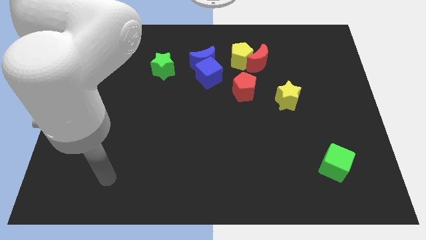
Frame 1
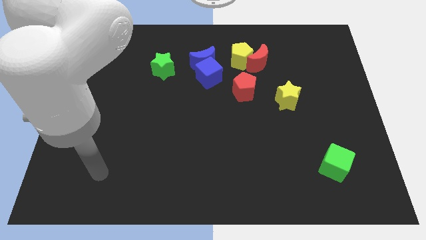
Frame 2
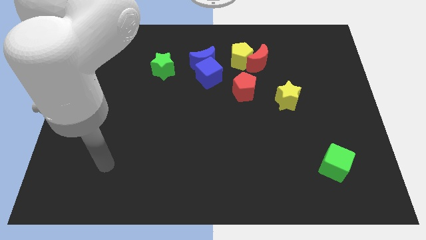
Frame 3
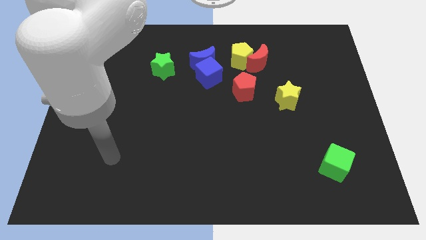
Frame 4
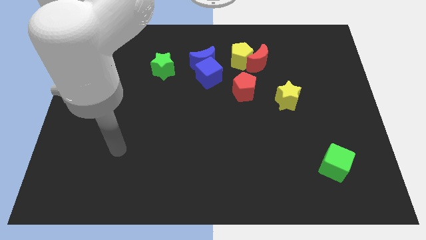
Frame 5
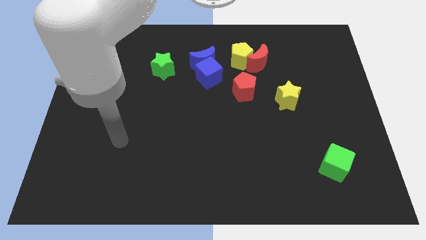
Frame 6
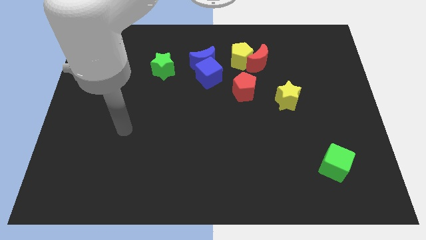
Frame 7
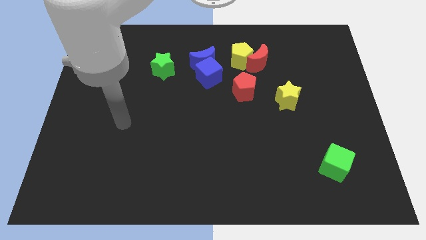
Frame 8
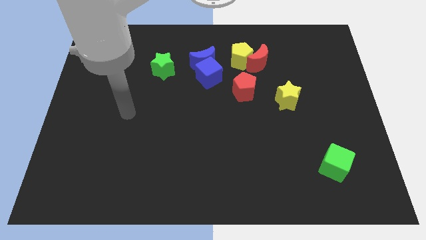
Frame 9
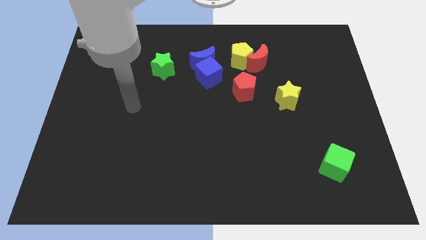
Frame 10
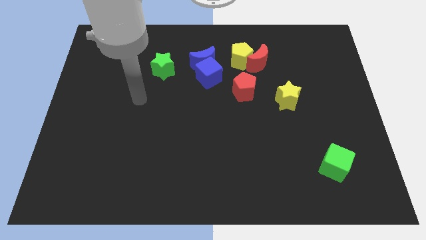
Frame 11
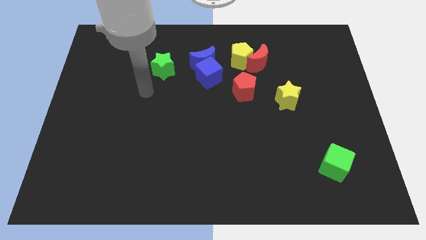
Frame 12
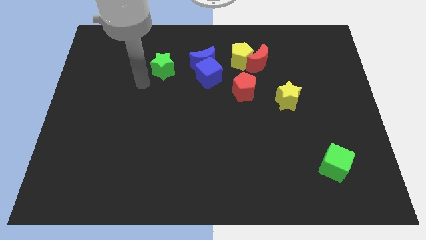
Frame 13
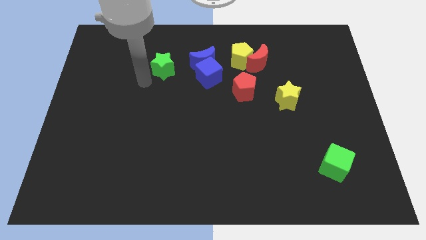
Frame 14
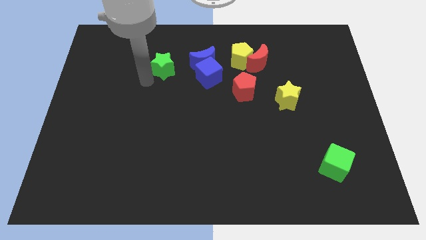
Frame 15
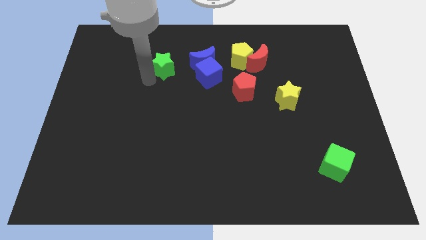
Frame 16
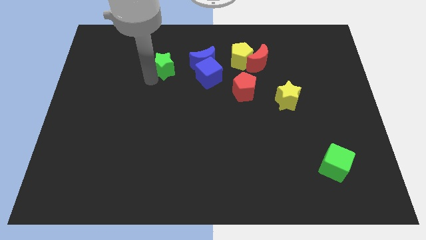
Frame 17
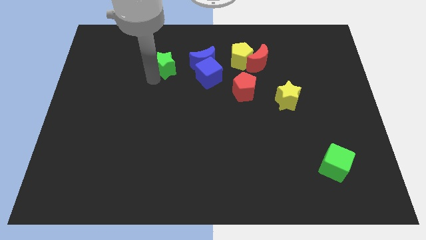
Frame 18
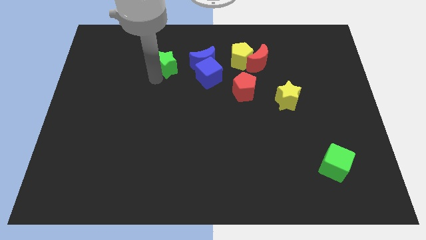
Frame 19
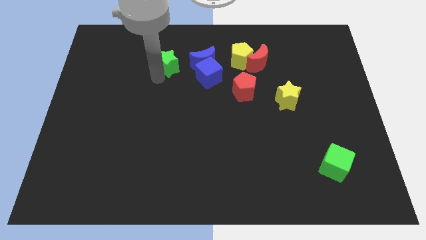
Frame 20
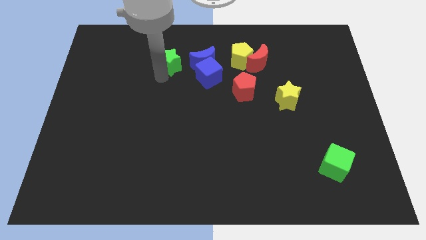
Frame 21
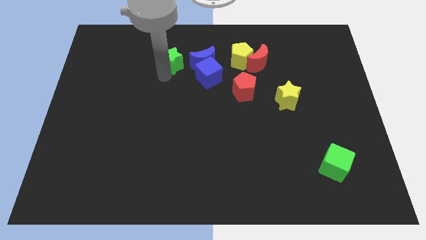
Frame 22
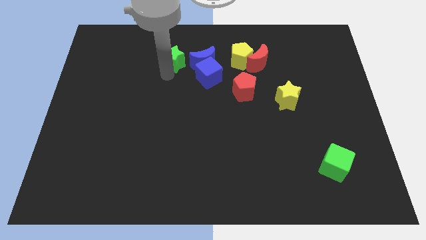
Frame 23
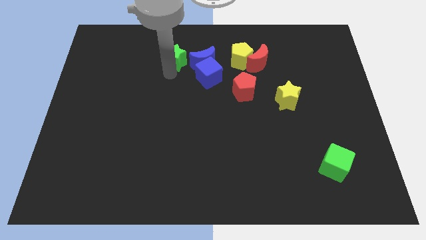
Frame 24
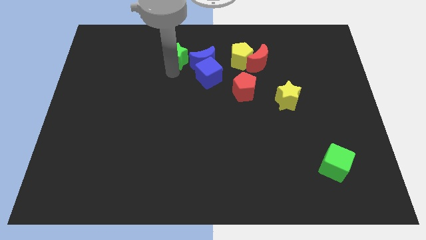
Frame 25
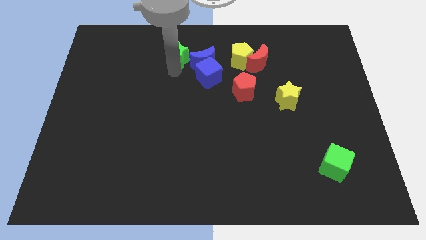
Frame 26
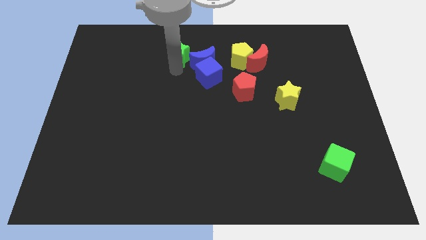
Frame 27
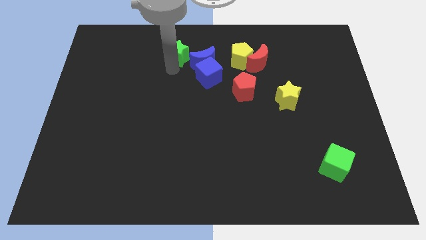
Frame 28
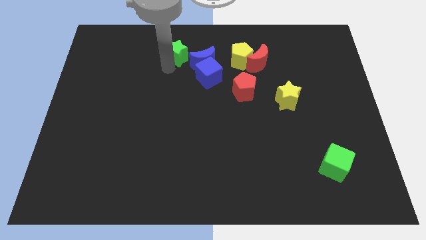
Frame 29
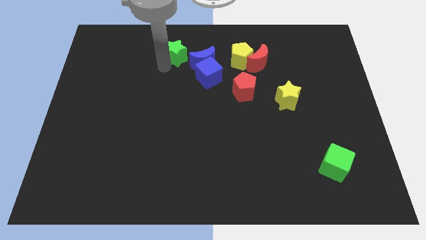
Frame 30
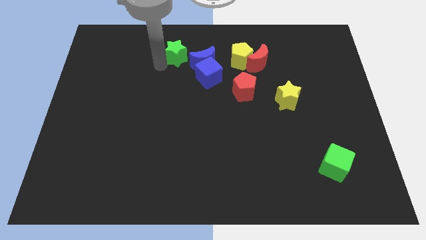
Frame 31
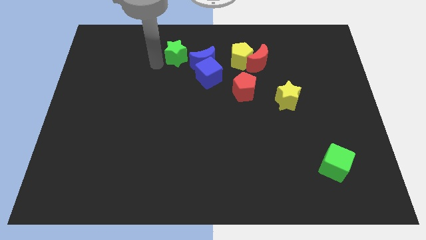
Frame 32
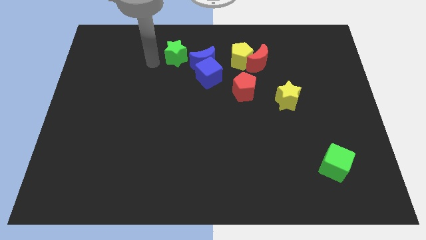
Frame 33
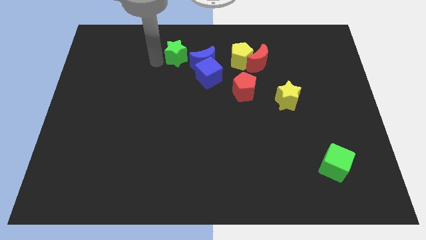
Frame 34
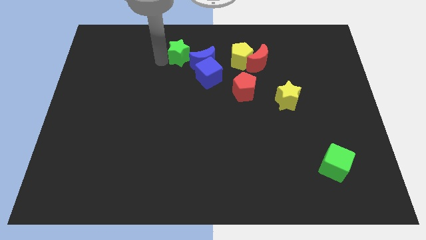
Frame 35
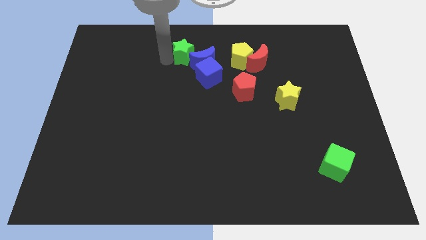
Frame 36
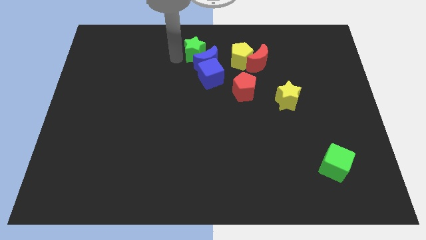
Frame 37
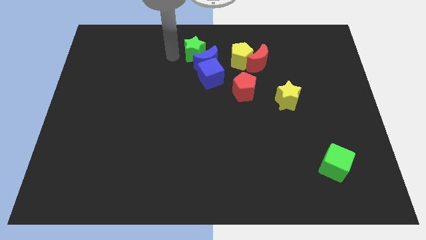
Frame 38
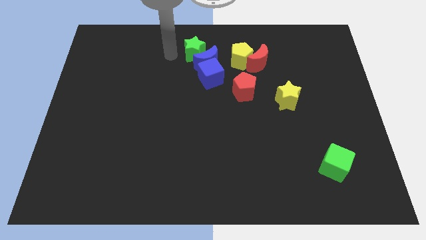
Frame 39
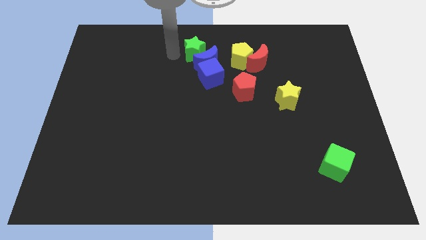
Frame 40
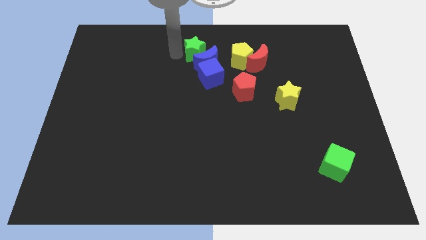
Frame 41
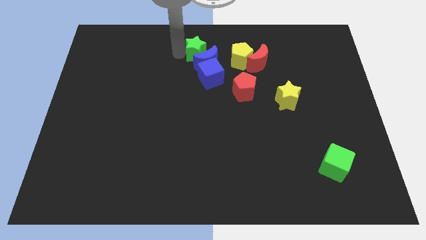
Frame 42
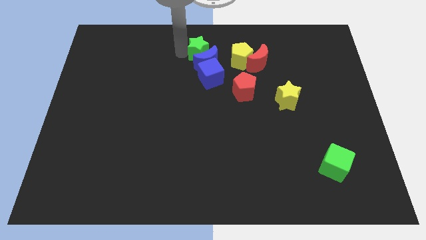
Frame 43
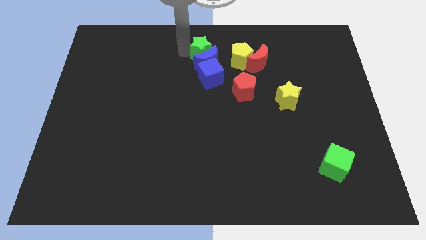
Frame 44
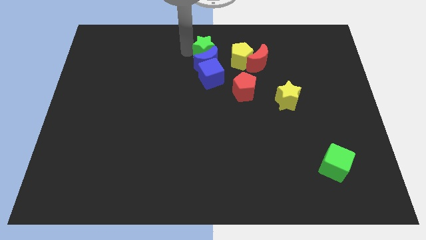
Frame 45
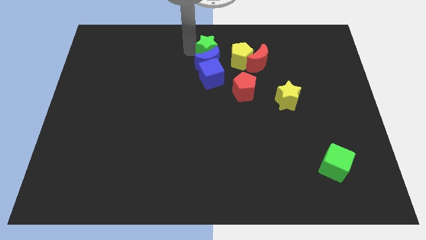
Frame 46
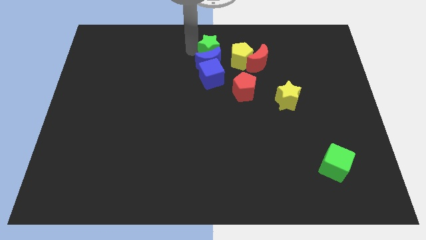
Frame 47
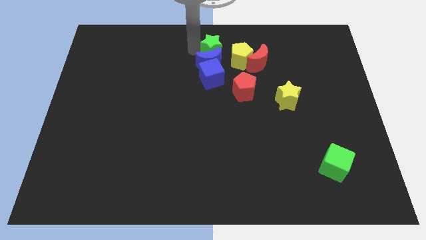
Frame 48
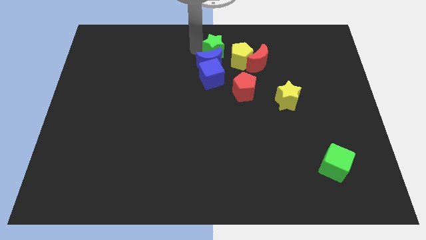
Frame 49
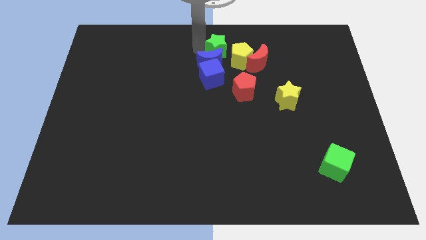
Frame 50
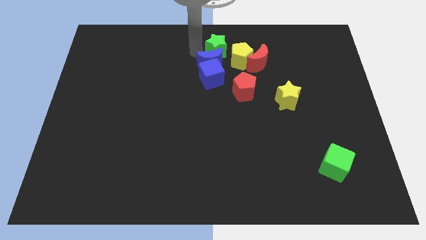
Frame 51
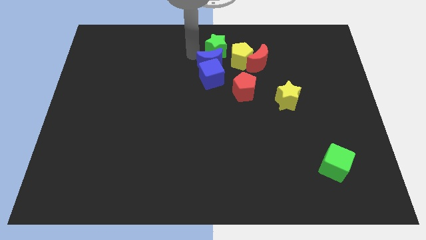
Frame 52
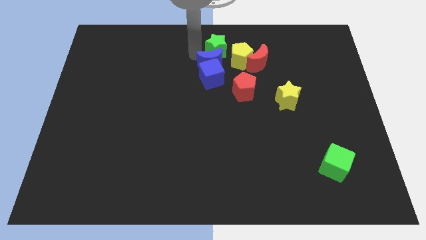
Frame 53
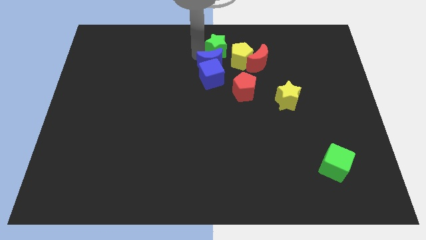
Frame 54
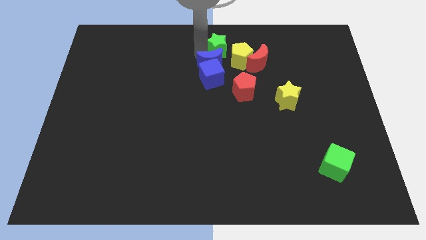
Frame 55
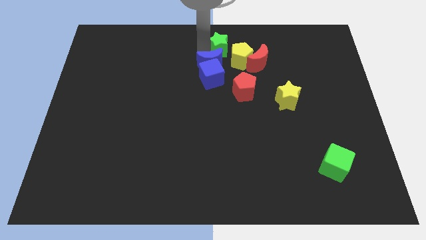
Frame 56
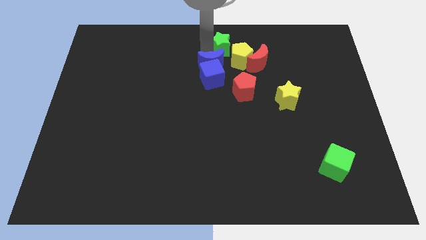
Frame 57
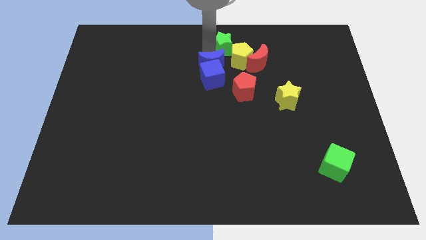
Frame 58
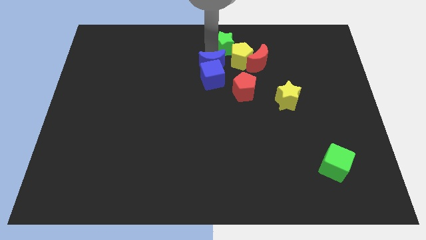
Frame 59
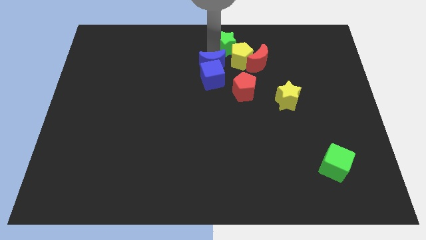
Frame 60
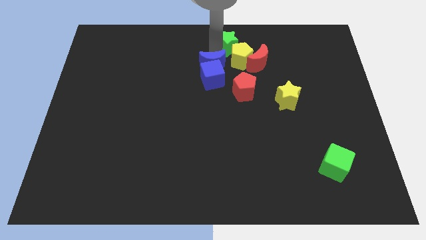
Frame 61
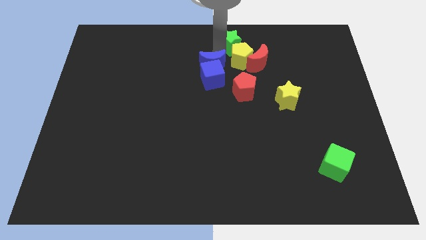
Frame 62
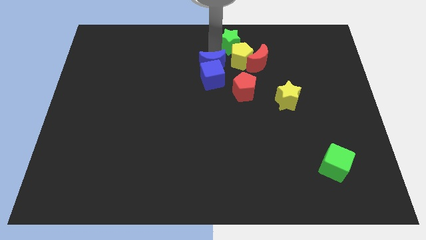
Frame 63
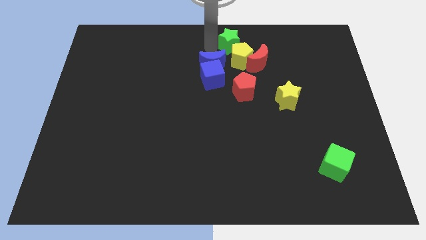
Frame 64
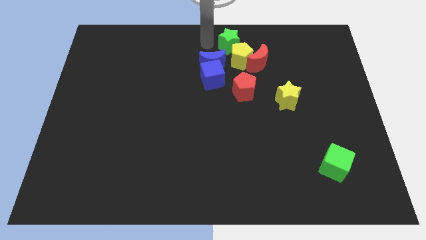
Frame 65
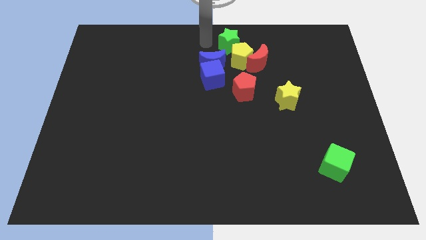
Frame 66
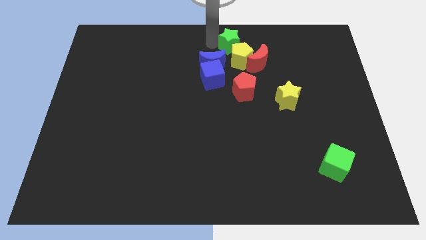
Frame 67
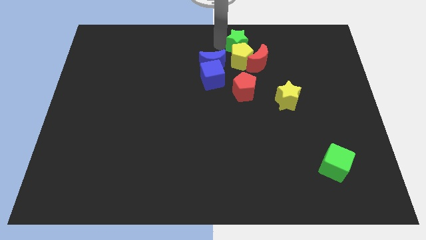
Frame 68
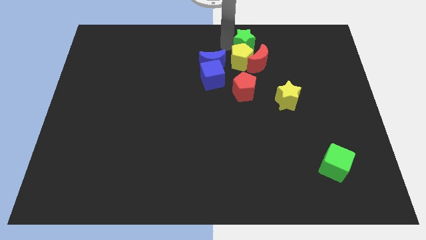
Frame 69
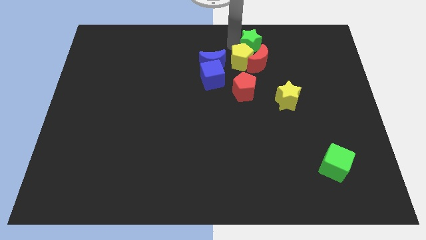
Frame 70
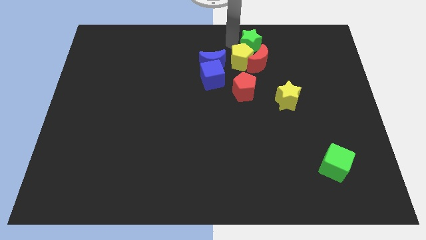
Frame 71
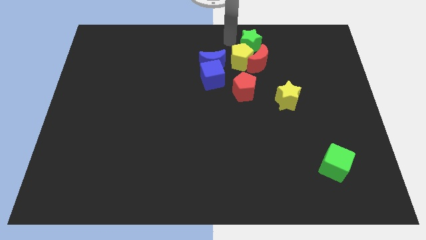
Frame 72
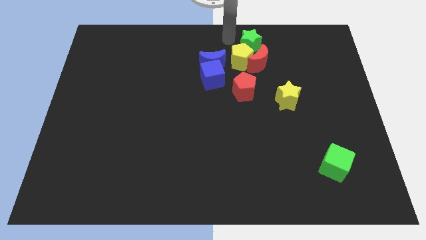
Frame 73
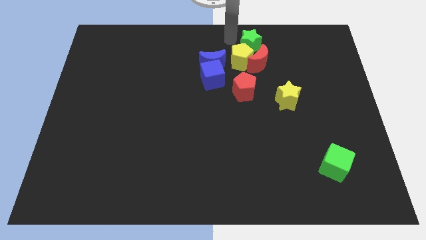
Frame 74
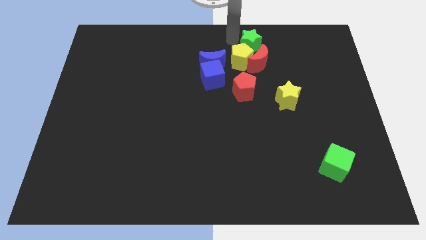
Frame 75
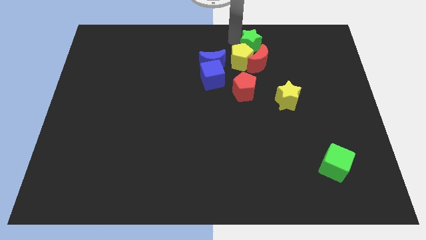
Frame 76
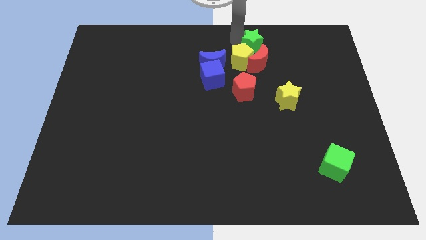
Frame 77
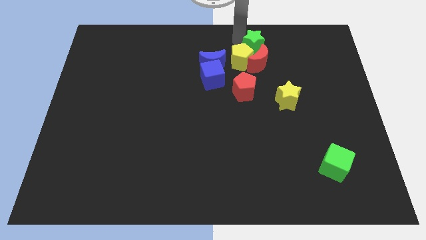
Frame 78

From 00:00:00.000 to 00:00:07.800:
push the green star to the right

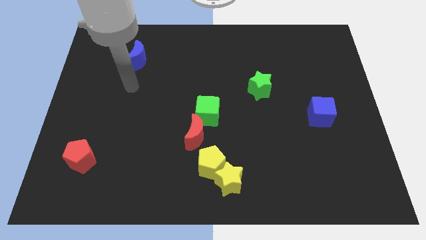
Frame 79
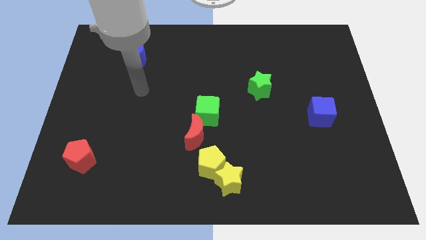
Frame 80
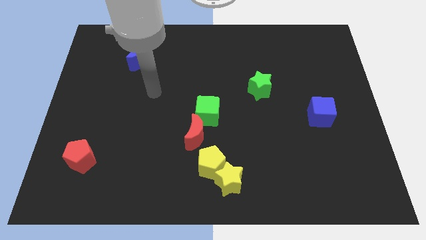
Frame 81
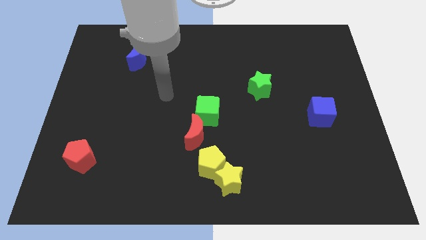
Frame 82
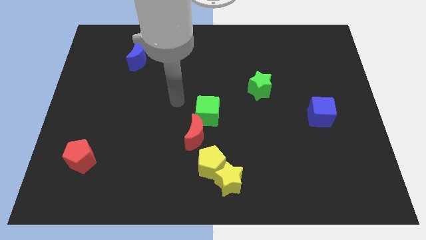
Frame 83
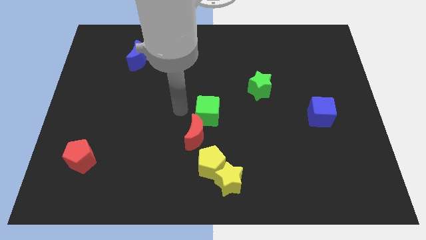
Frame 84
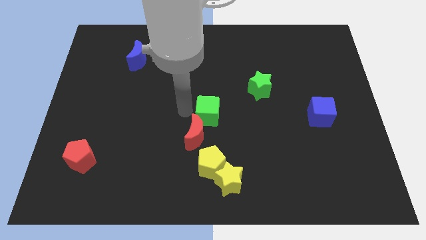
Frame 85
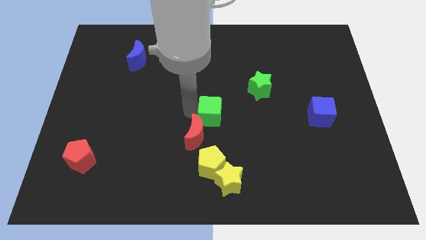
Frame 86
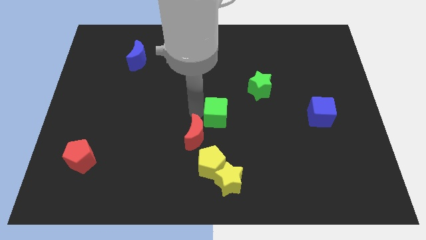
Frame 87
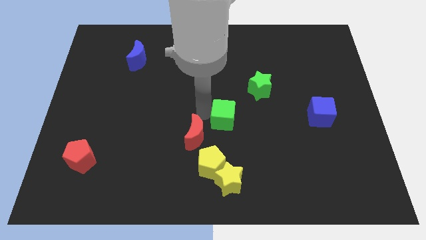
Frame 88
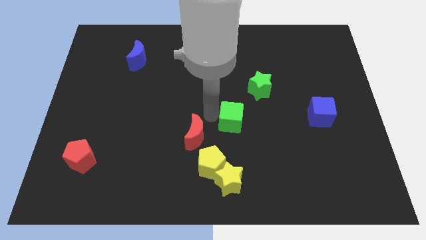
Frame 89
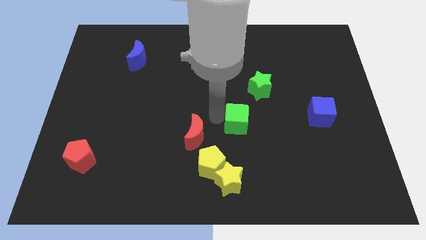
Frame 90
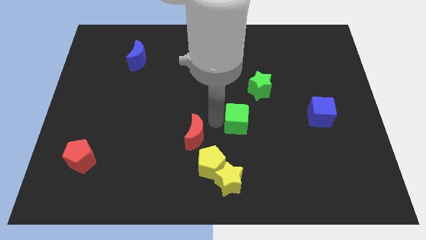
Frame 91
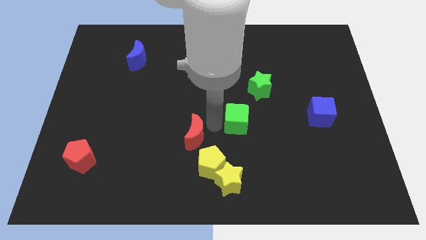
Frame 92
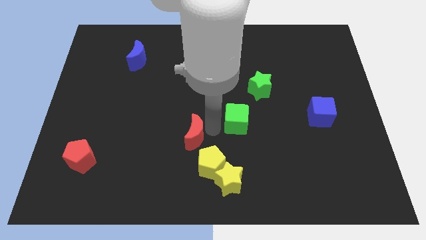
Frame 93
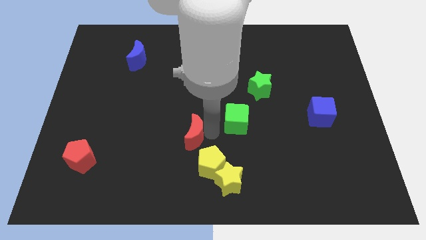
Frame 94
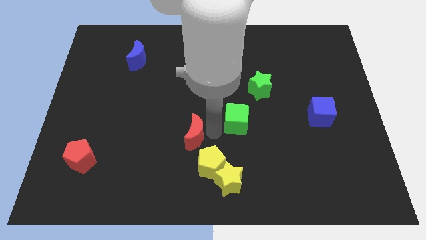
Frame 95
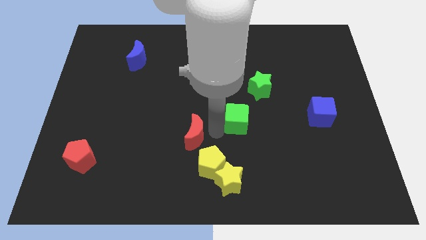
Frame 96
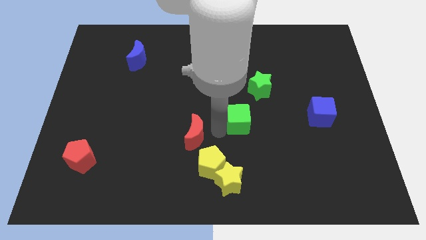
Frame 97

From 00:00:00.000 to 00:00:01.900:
slightly slide the green cube to the right
